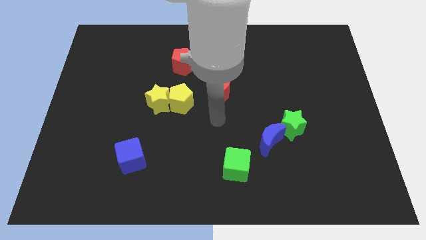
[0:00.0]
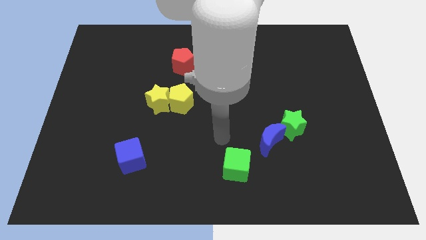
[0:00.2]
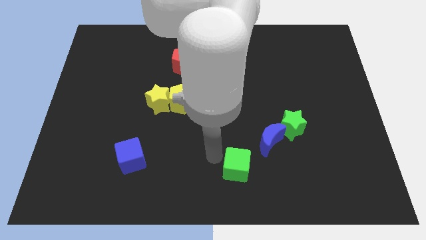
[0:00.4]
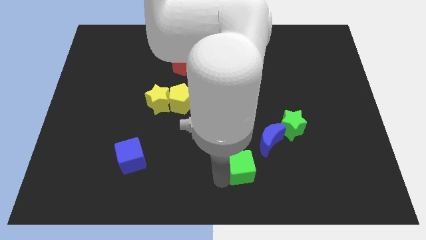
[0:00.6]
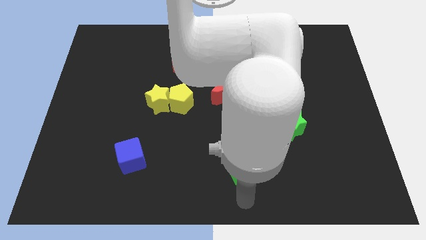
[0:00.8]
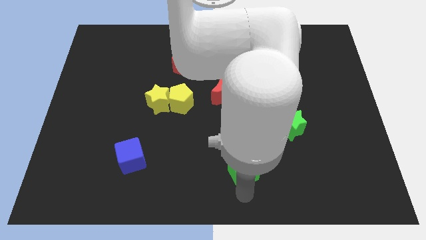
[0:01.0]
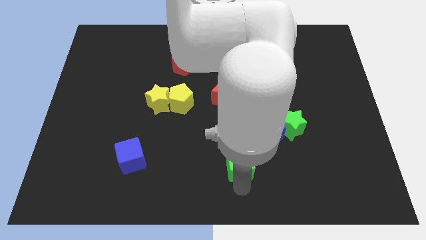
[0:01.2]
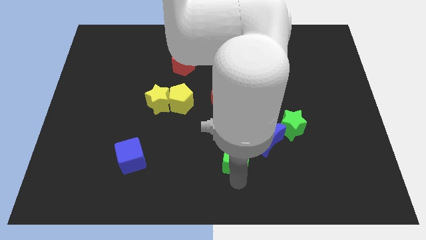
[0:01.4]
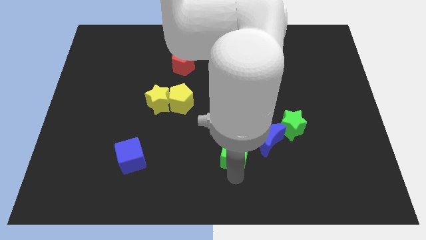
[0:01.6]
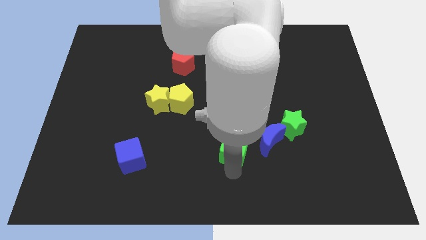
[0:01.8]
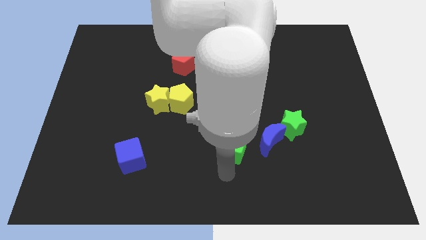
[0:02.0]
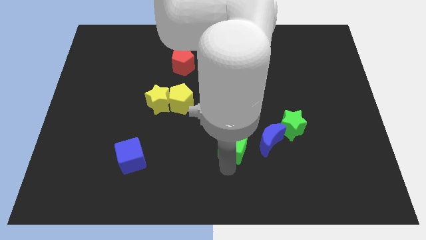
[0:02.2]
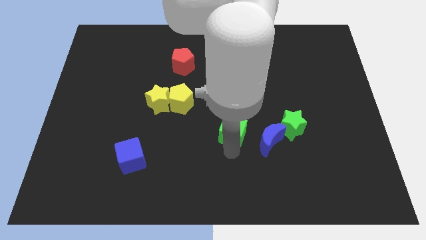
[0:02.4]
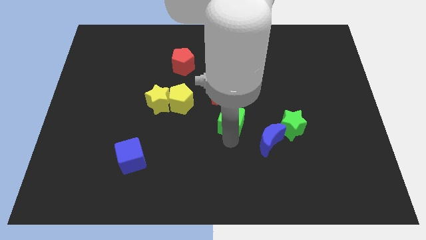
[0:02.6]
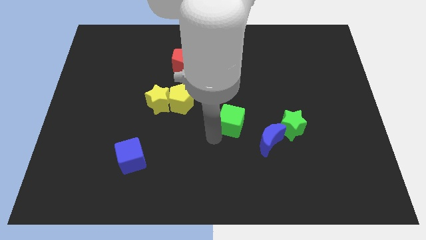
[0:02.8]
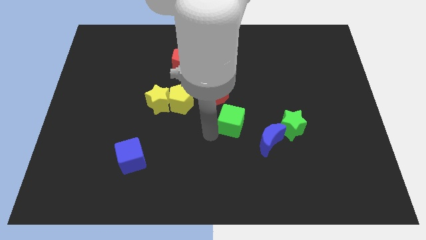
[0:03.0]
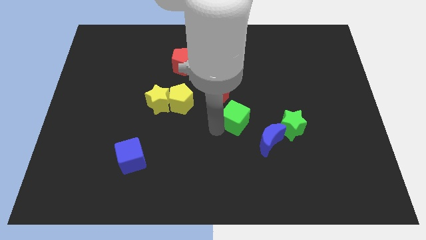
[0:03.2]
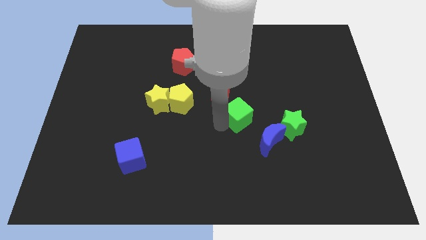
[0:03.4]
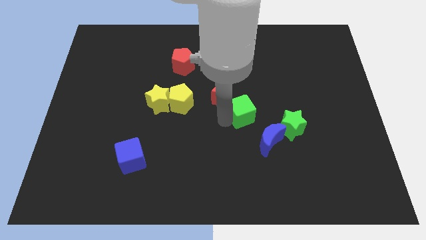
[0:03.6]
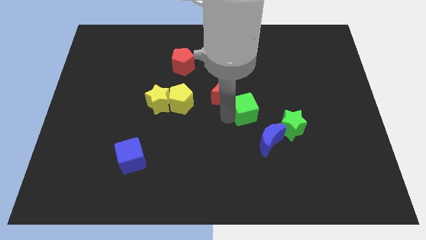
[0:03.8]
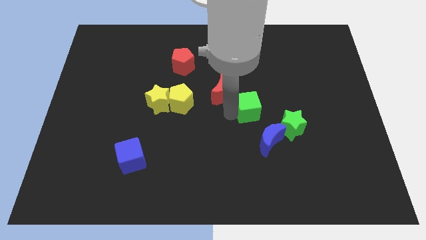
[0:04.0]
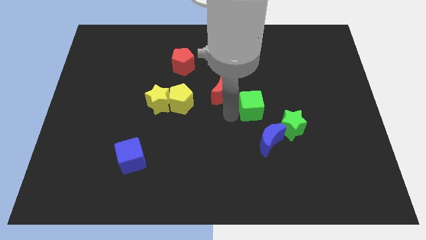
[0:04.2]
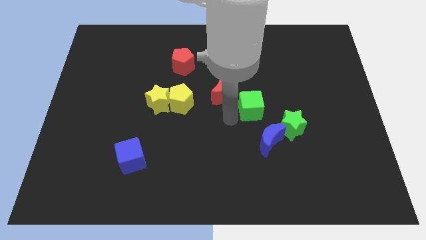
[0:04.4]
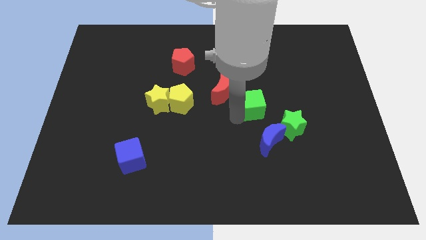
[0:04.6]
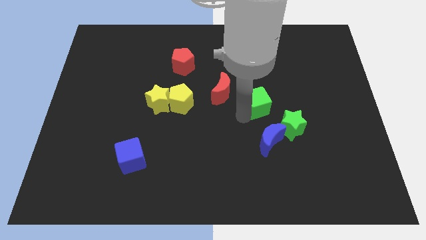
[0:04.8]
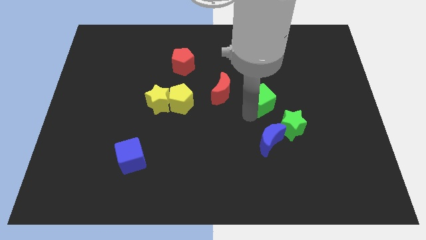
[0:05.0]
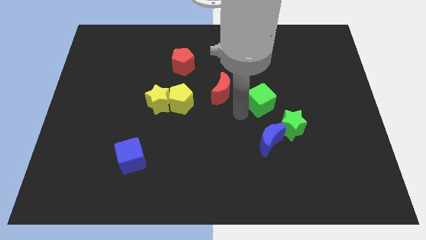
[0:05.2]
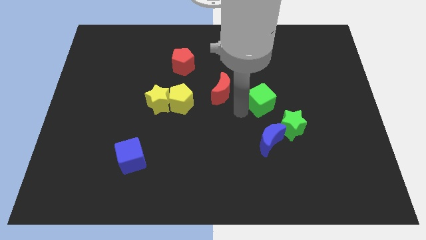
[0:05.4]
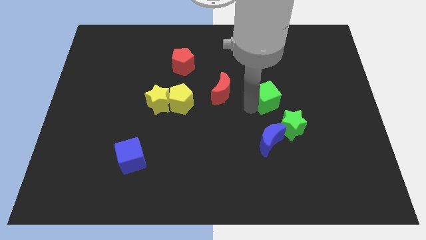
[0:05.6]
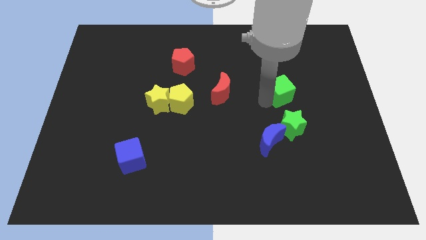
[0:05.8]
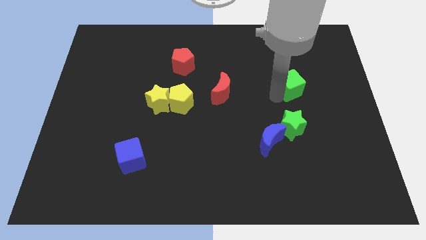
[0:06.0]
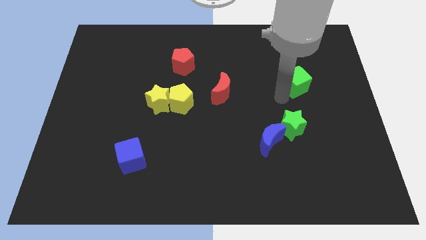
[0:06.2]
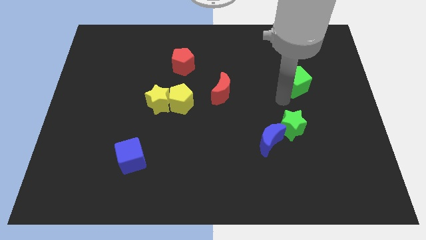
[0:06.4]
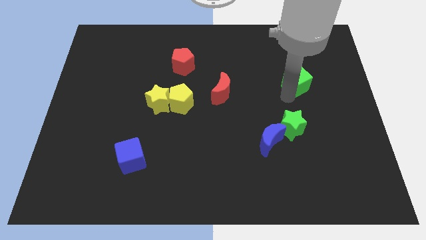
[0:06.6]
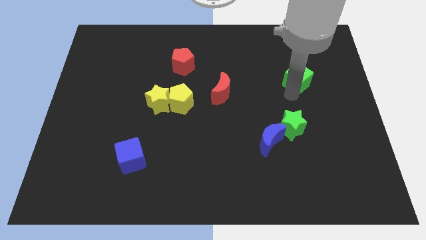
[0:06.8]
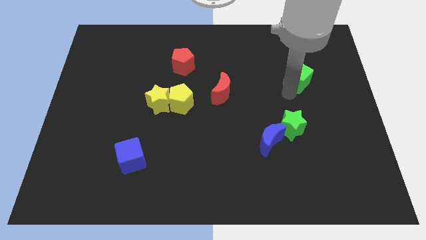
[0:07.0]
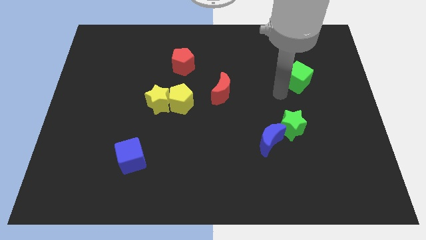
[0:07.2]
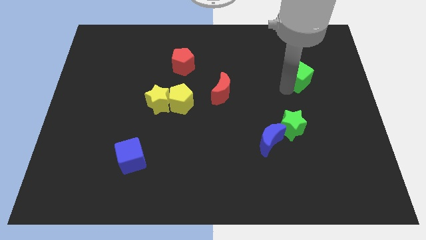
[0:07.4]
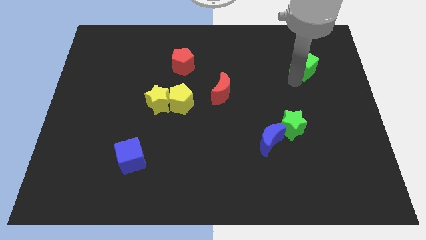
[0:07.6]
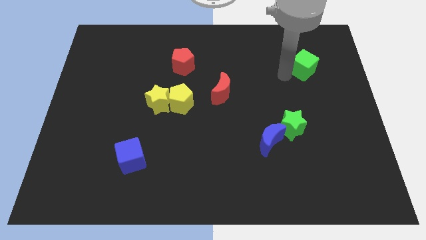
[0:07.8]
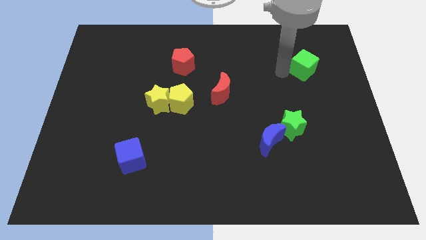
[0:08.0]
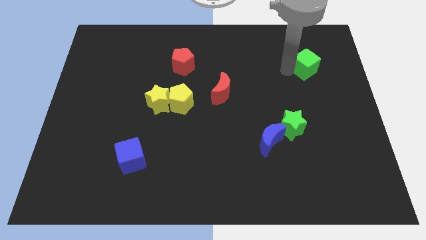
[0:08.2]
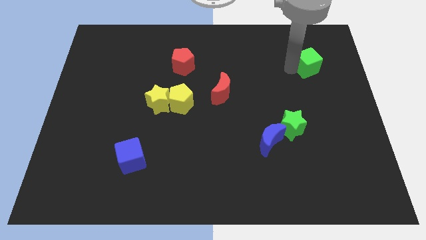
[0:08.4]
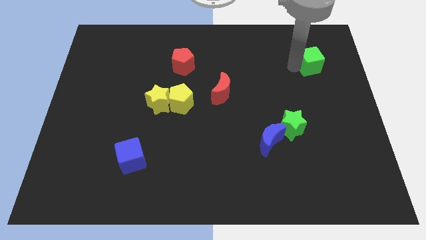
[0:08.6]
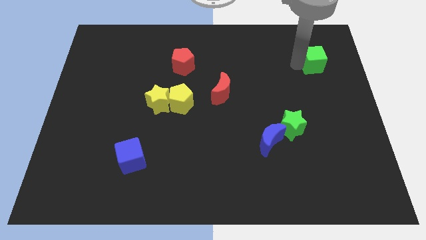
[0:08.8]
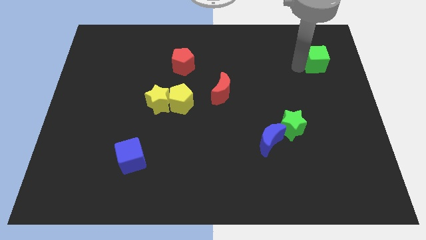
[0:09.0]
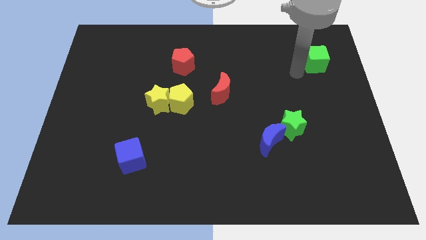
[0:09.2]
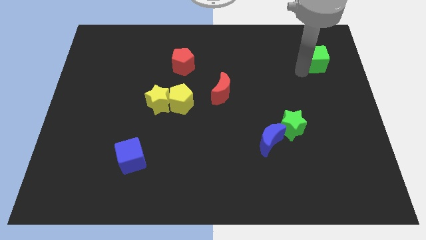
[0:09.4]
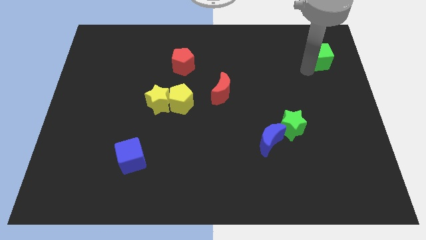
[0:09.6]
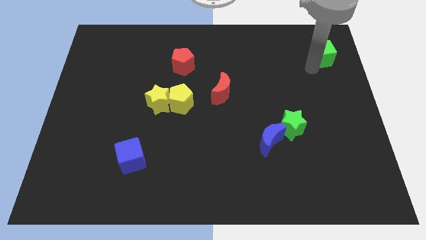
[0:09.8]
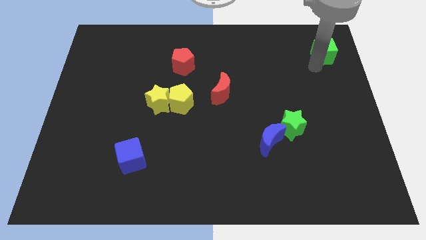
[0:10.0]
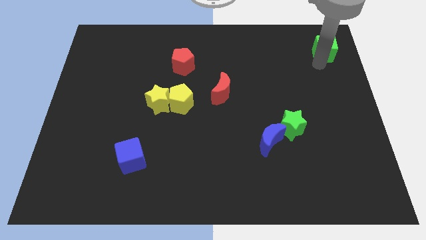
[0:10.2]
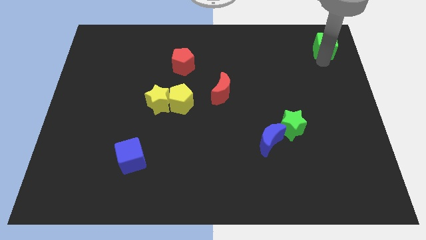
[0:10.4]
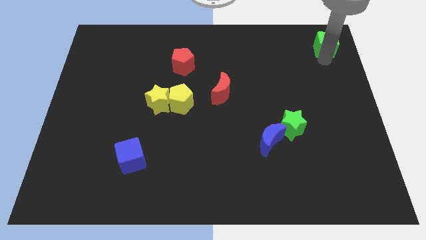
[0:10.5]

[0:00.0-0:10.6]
put the green cube to the top right

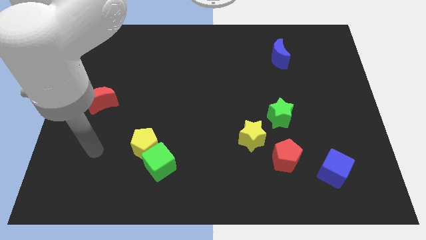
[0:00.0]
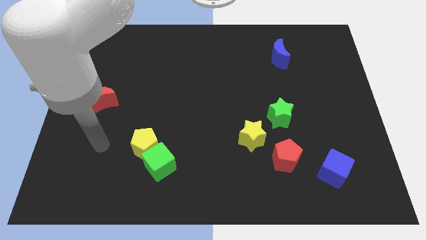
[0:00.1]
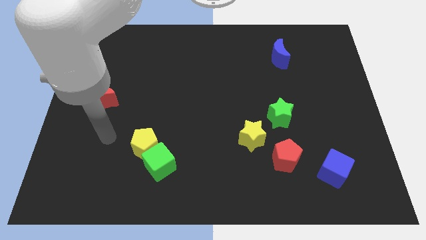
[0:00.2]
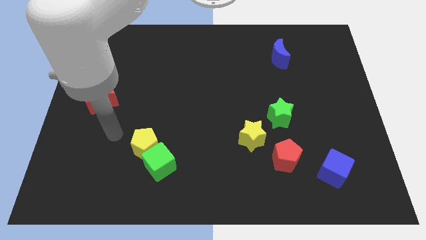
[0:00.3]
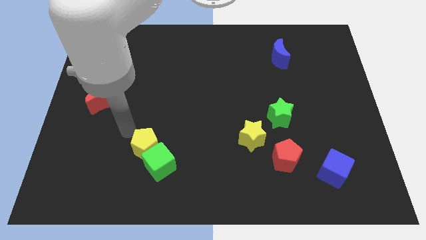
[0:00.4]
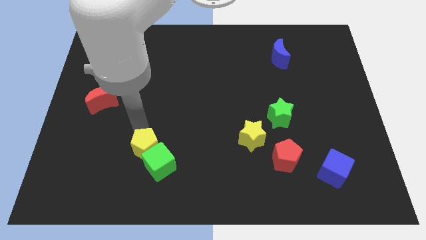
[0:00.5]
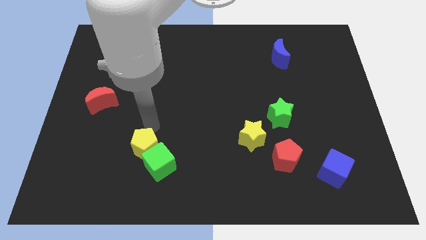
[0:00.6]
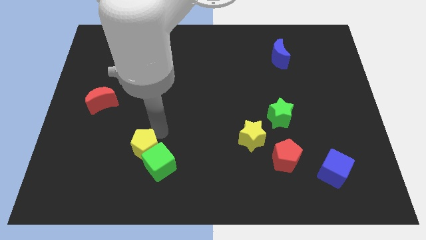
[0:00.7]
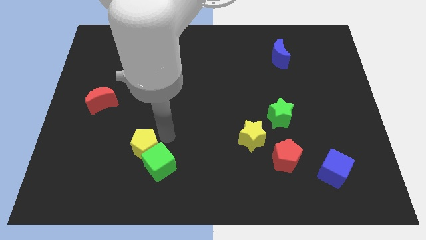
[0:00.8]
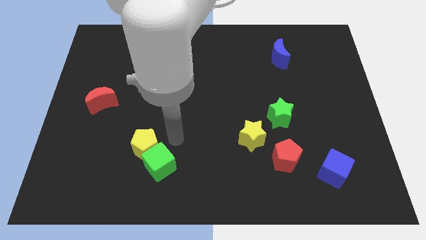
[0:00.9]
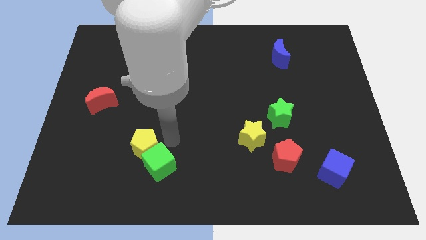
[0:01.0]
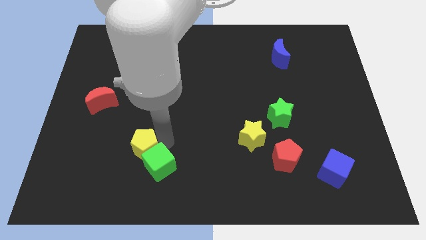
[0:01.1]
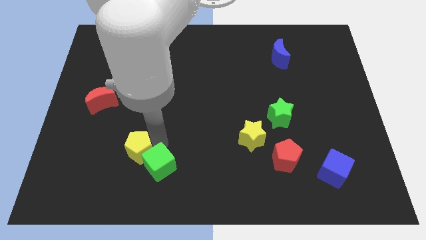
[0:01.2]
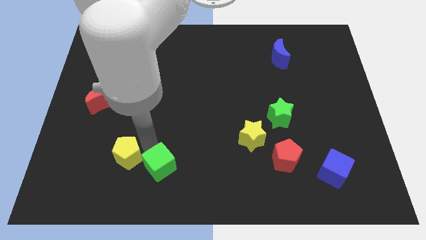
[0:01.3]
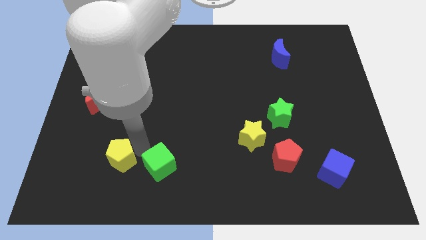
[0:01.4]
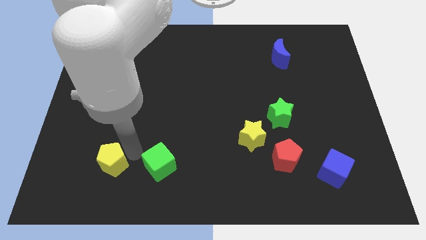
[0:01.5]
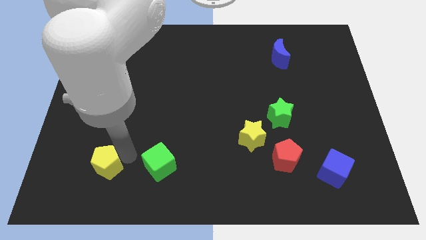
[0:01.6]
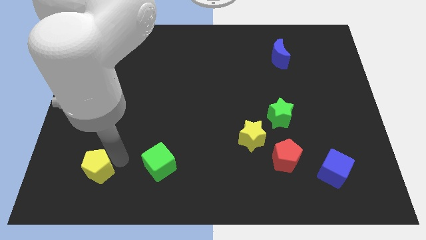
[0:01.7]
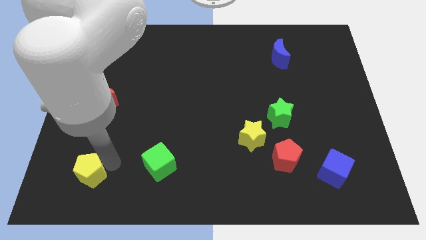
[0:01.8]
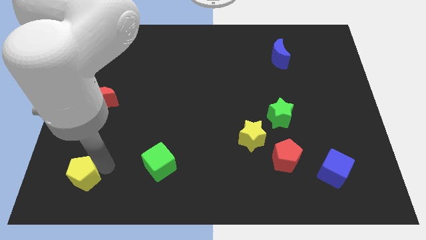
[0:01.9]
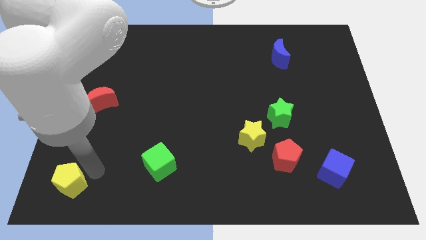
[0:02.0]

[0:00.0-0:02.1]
move the yellow pentagon to the lower left corner
